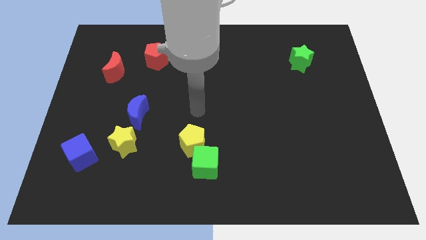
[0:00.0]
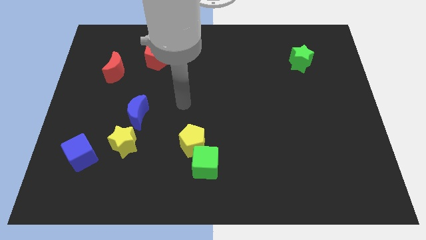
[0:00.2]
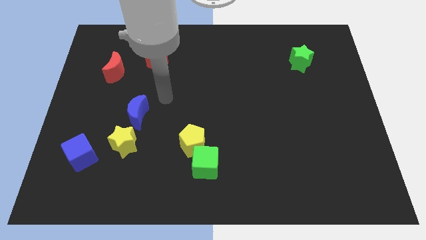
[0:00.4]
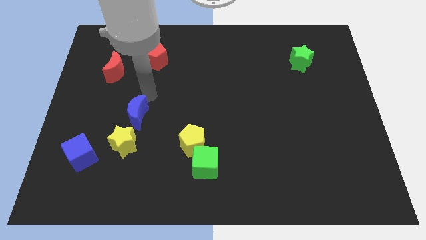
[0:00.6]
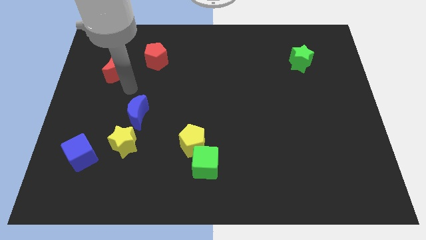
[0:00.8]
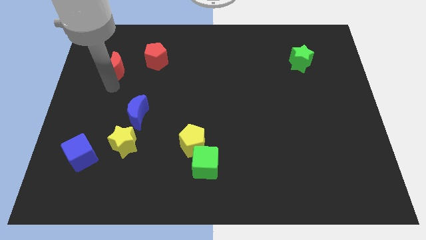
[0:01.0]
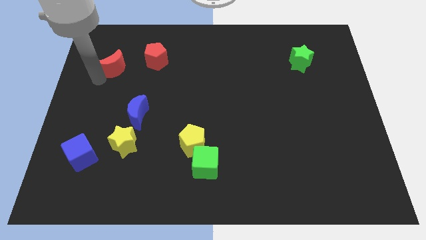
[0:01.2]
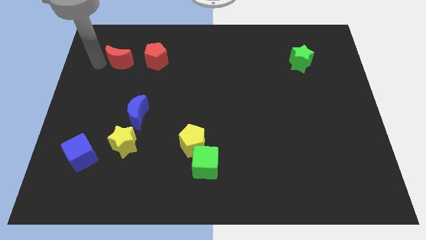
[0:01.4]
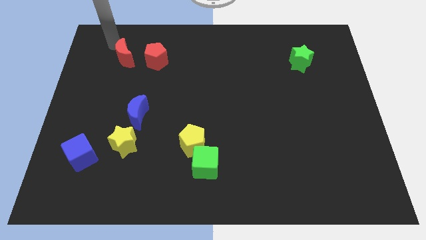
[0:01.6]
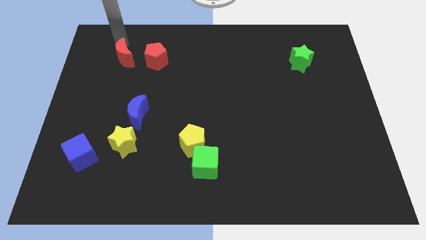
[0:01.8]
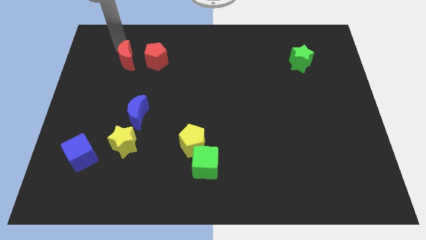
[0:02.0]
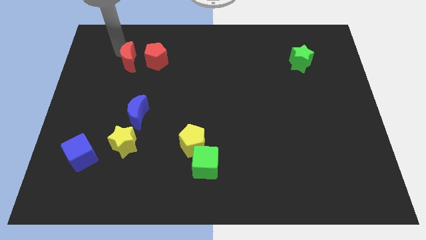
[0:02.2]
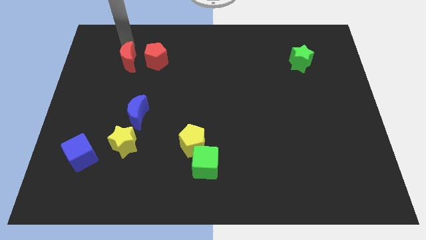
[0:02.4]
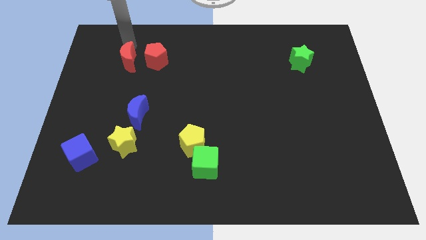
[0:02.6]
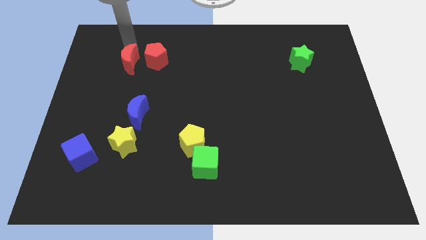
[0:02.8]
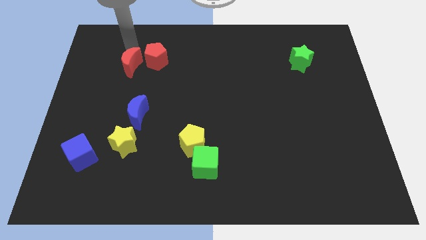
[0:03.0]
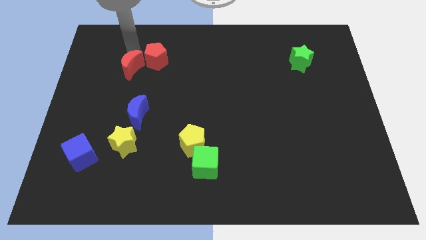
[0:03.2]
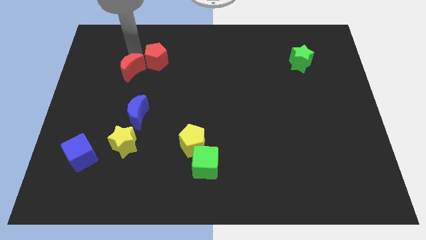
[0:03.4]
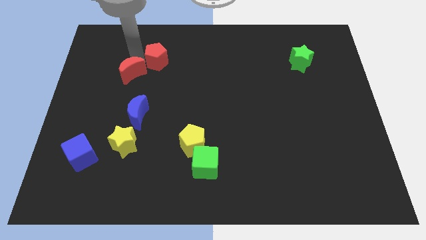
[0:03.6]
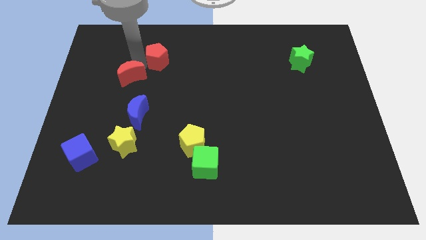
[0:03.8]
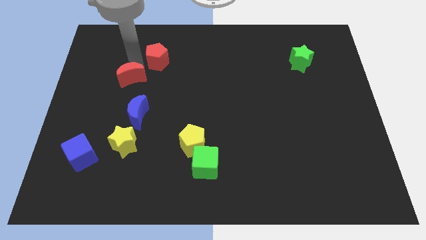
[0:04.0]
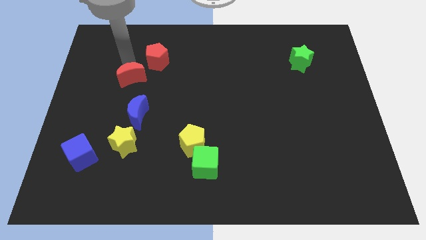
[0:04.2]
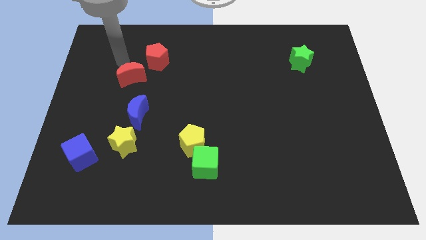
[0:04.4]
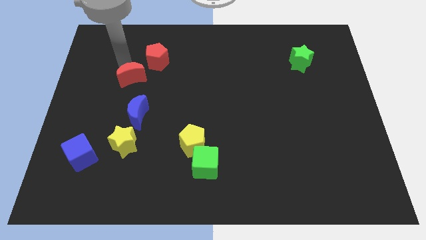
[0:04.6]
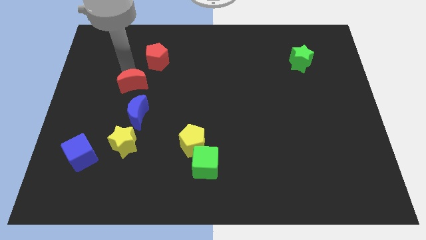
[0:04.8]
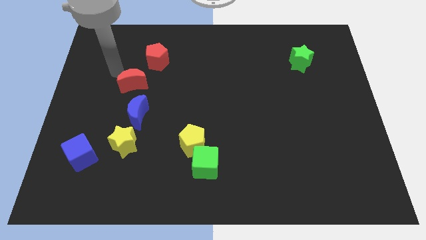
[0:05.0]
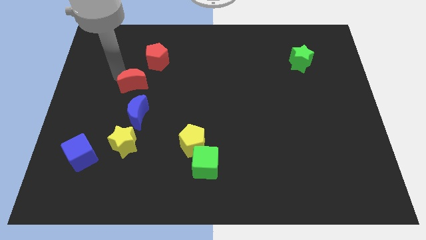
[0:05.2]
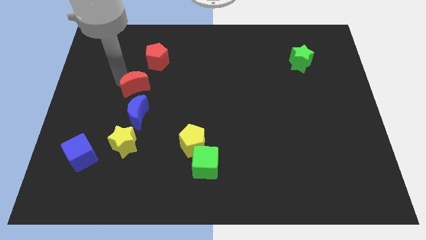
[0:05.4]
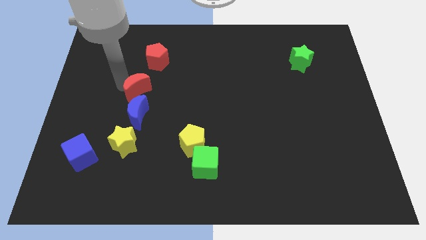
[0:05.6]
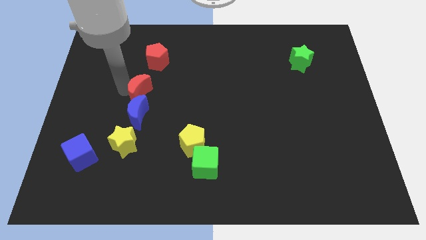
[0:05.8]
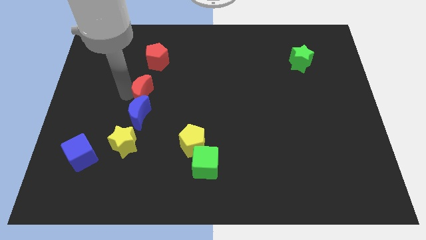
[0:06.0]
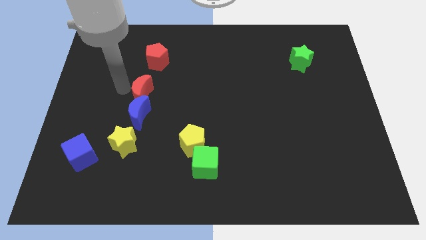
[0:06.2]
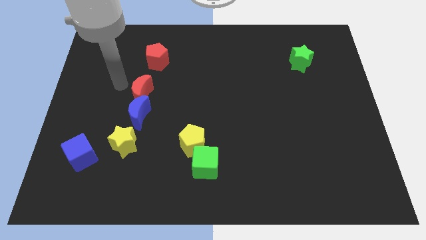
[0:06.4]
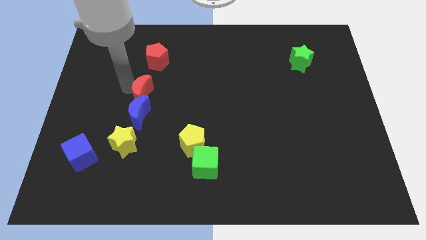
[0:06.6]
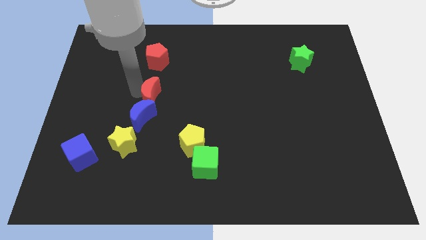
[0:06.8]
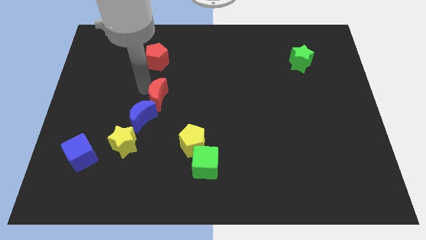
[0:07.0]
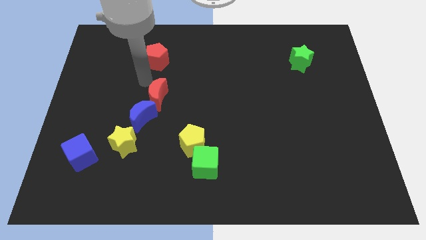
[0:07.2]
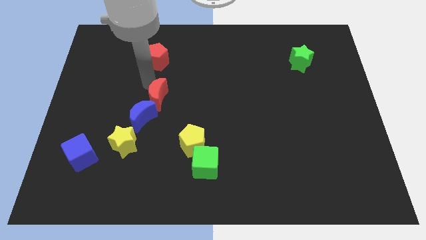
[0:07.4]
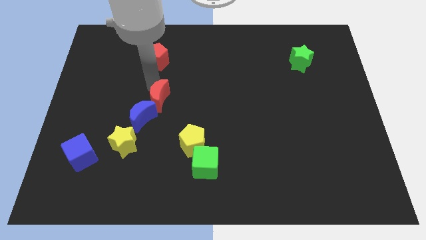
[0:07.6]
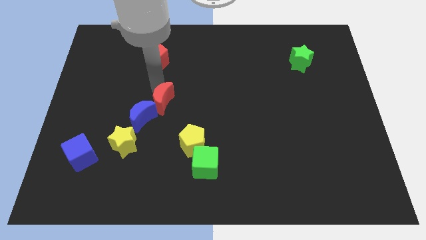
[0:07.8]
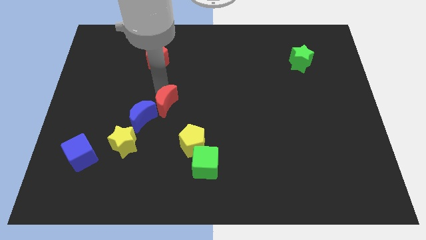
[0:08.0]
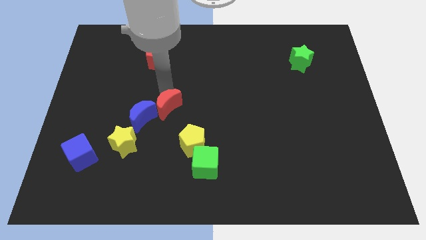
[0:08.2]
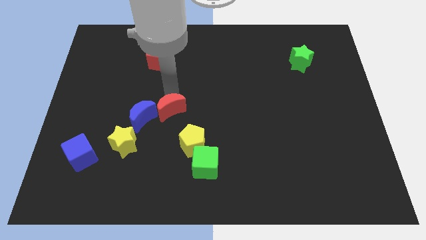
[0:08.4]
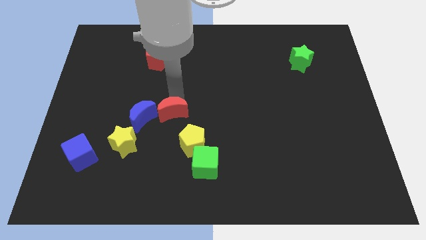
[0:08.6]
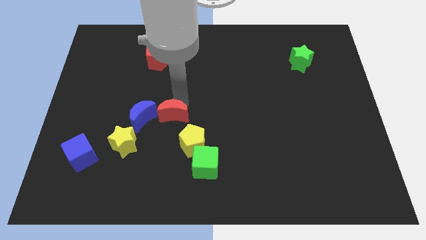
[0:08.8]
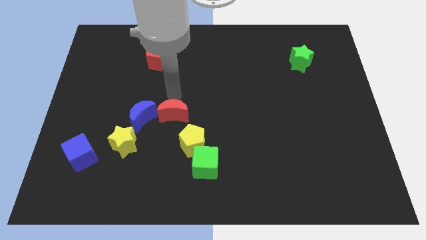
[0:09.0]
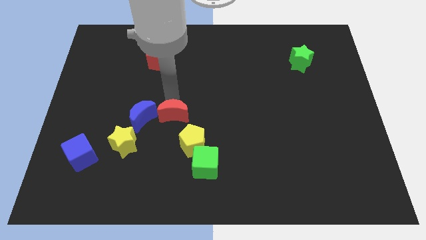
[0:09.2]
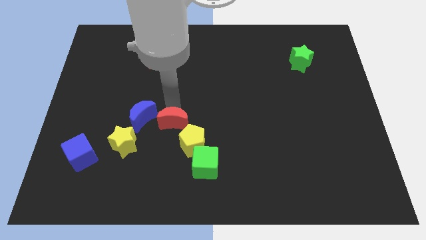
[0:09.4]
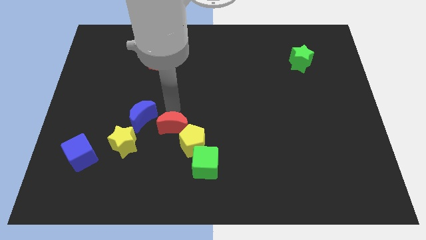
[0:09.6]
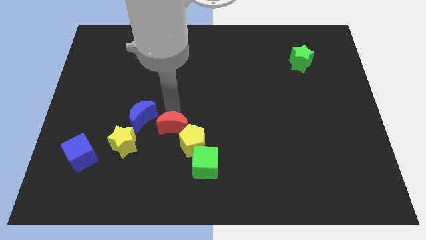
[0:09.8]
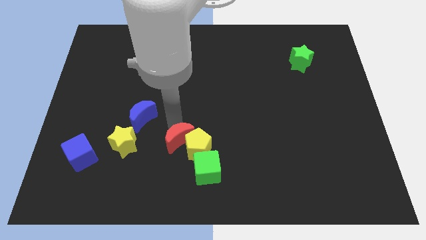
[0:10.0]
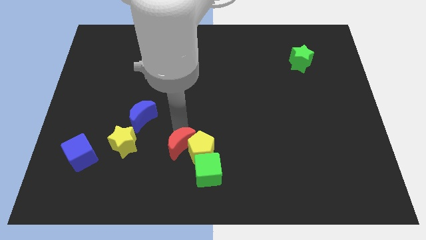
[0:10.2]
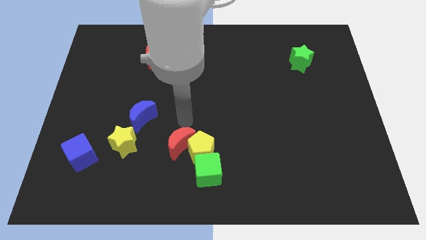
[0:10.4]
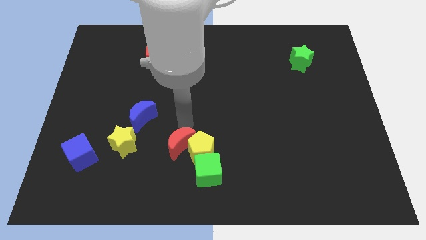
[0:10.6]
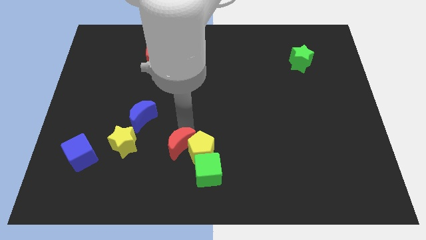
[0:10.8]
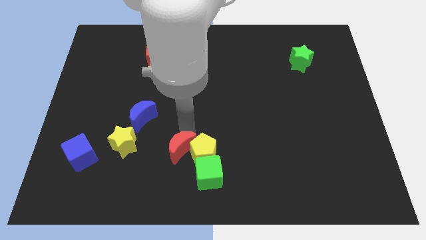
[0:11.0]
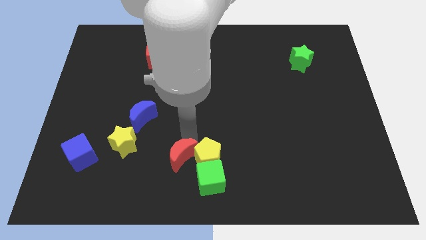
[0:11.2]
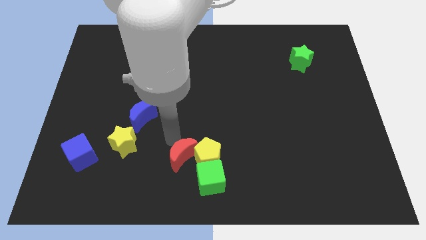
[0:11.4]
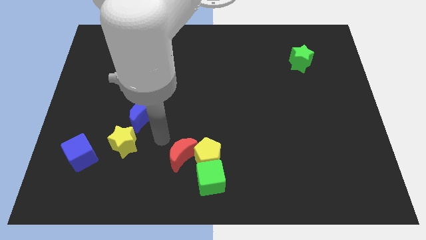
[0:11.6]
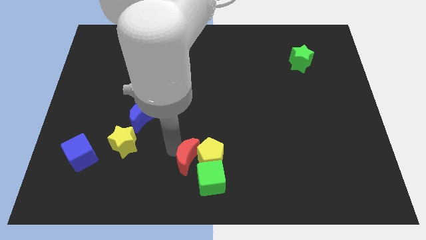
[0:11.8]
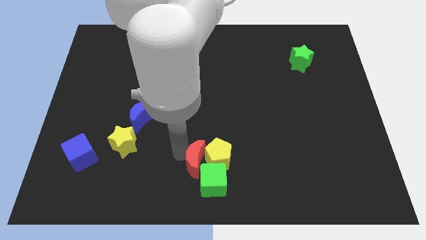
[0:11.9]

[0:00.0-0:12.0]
slide the red moon to the green cube

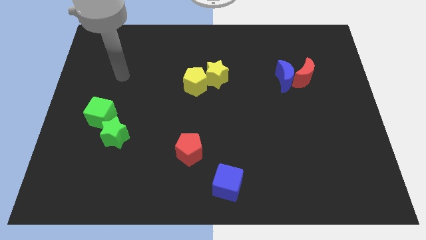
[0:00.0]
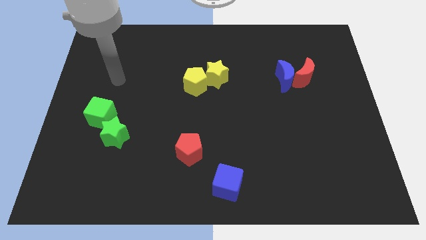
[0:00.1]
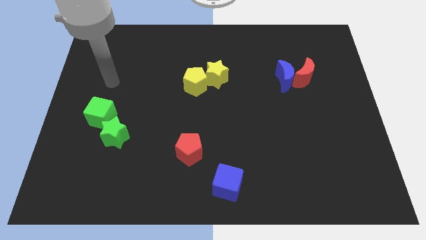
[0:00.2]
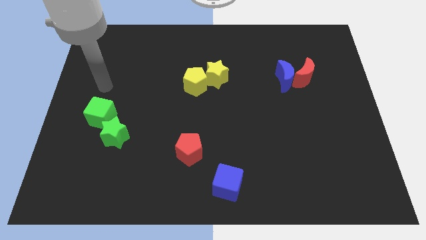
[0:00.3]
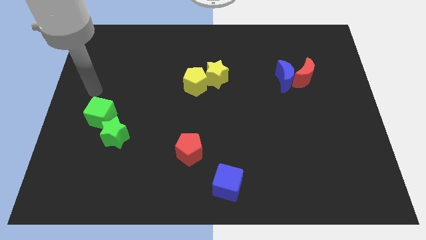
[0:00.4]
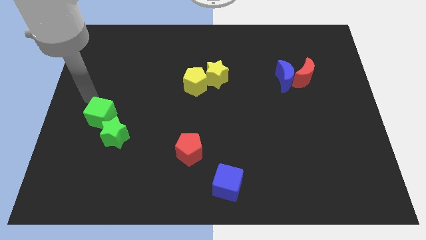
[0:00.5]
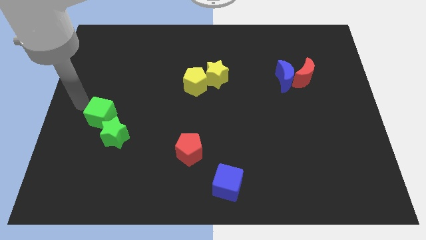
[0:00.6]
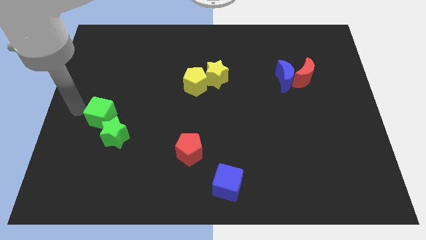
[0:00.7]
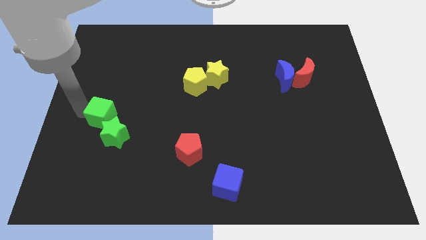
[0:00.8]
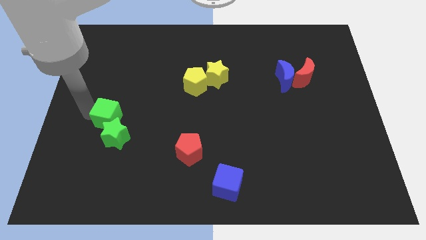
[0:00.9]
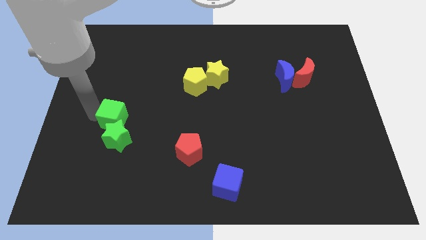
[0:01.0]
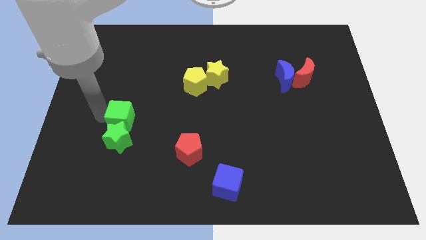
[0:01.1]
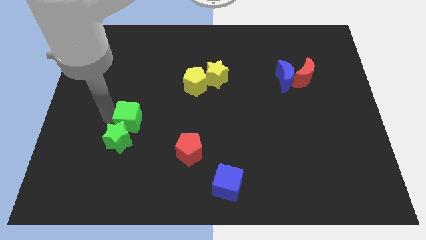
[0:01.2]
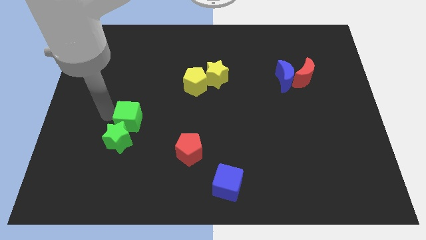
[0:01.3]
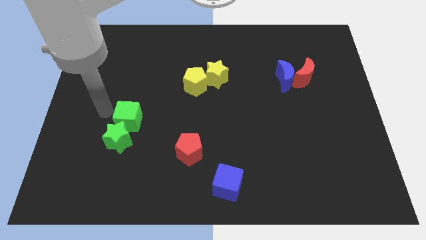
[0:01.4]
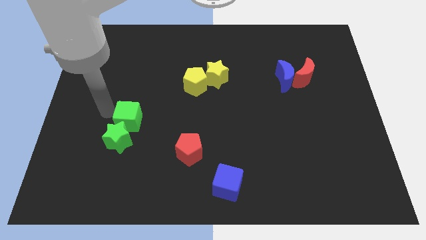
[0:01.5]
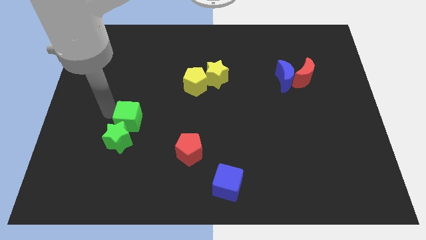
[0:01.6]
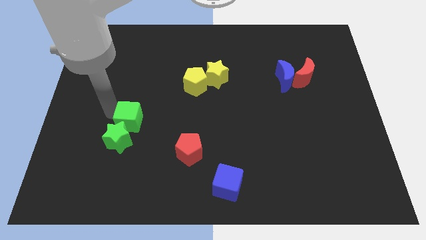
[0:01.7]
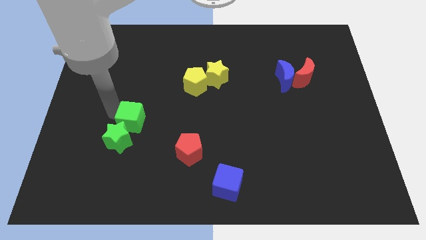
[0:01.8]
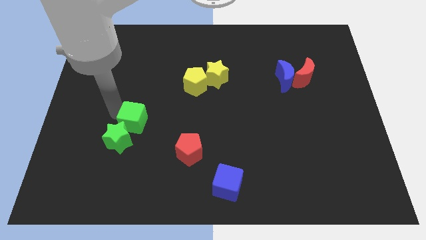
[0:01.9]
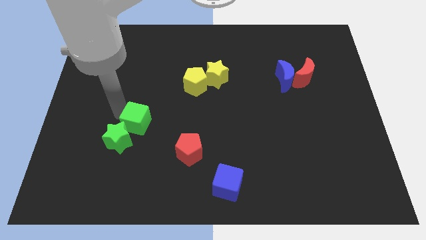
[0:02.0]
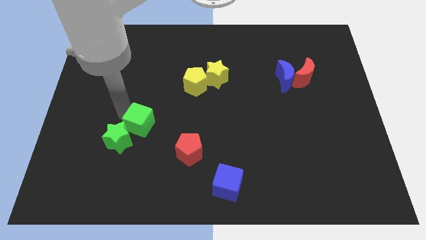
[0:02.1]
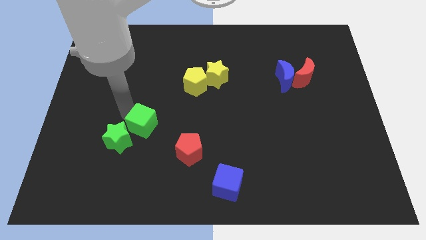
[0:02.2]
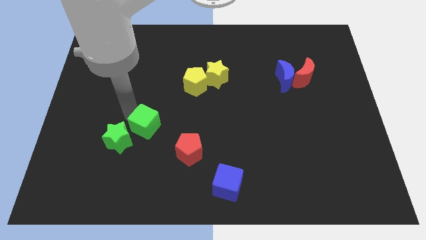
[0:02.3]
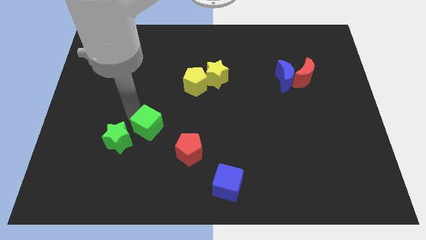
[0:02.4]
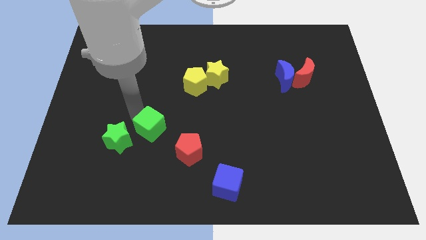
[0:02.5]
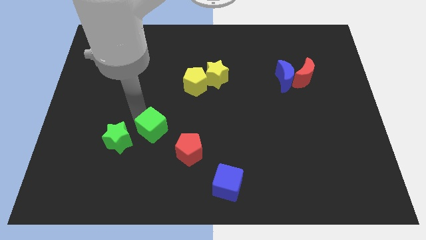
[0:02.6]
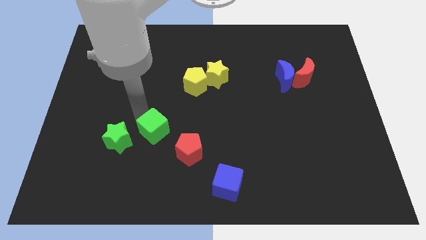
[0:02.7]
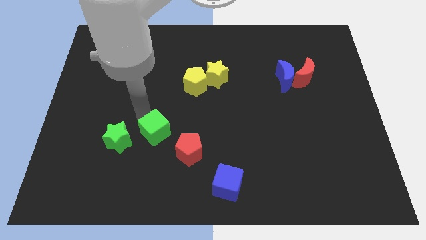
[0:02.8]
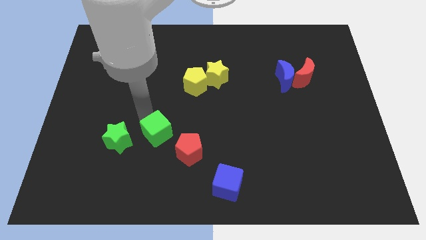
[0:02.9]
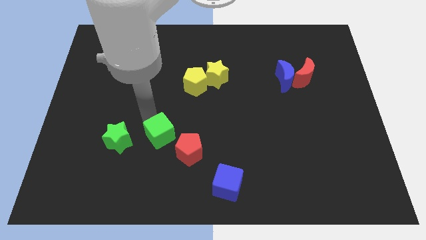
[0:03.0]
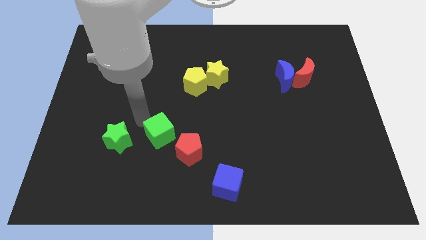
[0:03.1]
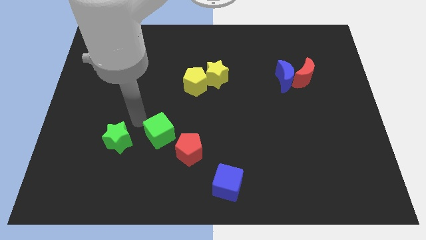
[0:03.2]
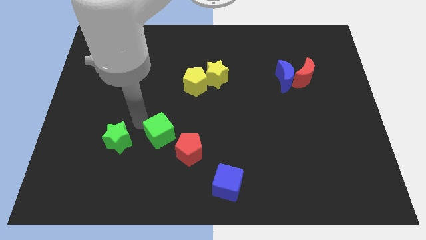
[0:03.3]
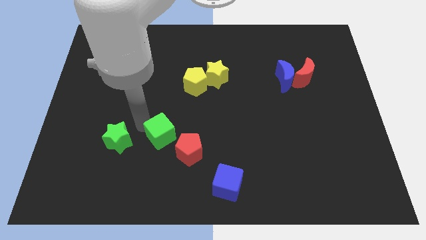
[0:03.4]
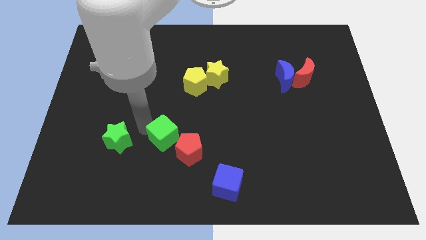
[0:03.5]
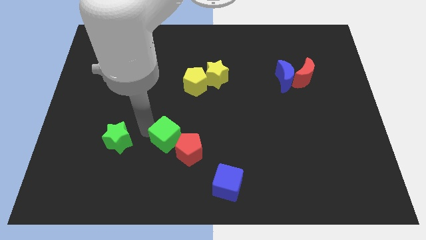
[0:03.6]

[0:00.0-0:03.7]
slide the green cube next to the red pentagon
